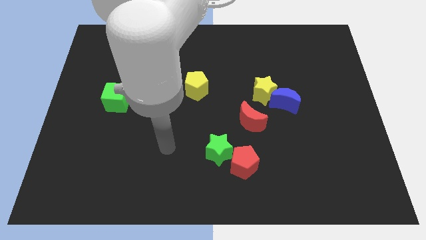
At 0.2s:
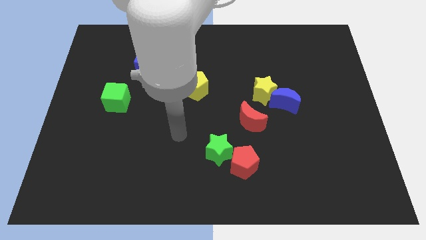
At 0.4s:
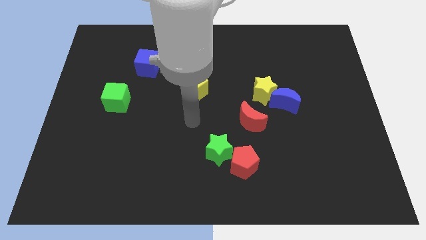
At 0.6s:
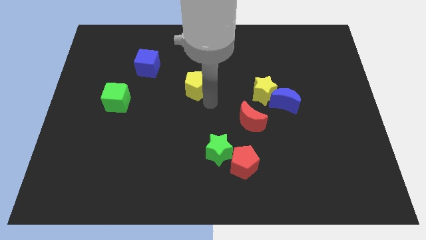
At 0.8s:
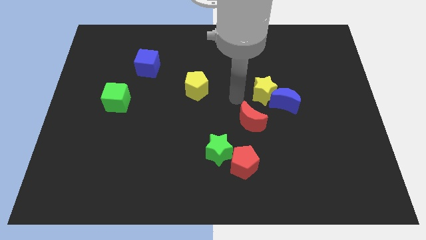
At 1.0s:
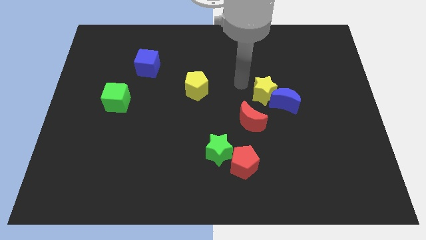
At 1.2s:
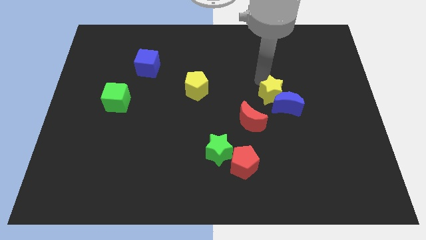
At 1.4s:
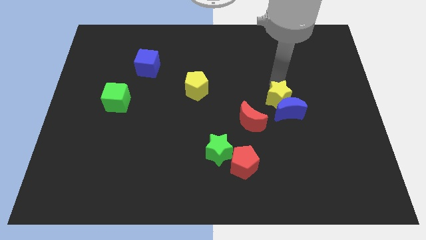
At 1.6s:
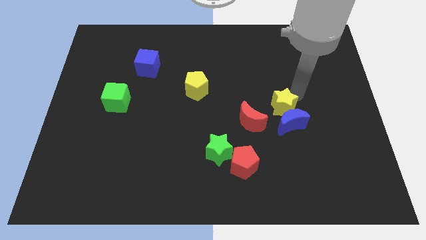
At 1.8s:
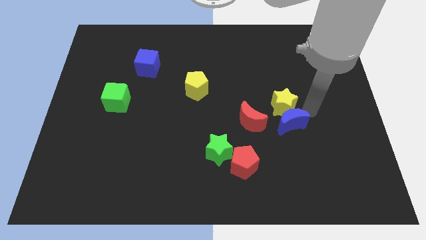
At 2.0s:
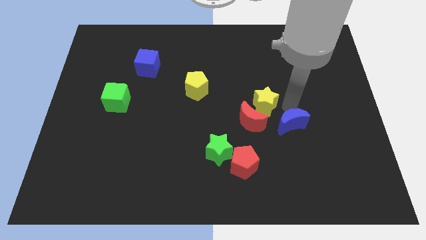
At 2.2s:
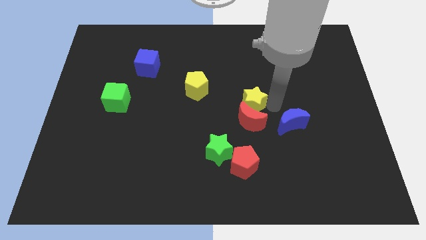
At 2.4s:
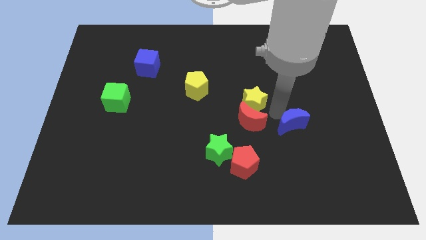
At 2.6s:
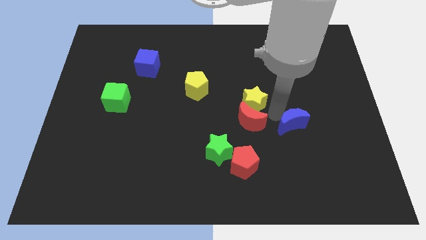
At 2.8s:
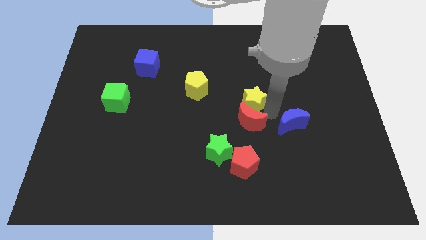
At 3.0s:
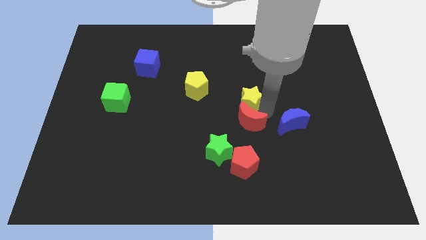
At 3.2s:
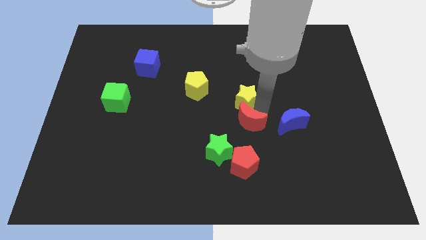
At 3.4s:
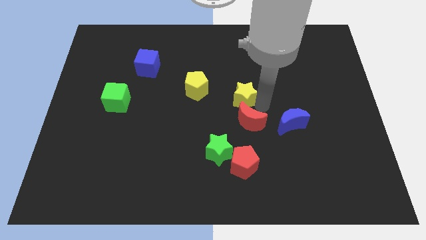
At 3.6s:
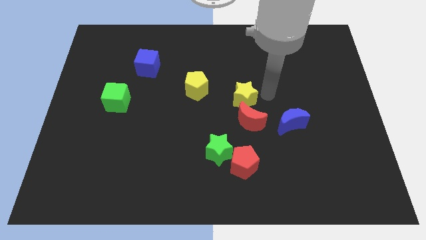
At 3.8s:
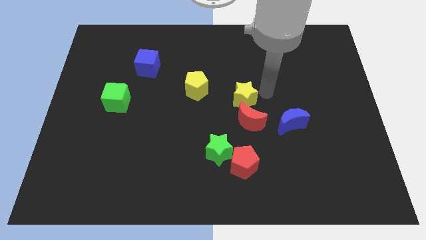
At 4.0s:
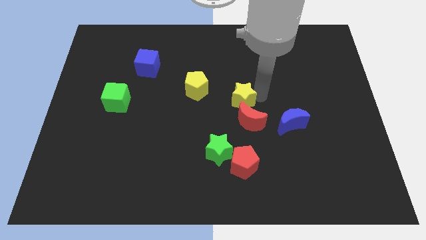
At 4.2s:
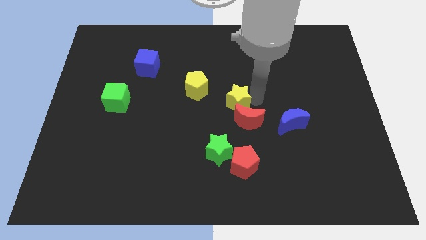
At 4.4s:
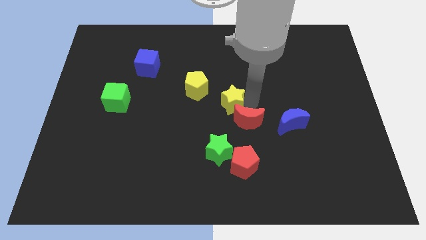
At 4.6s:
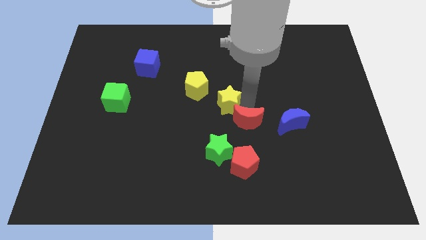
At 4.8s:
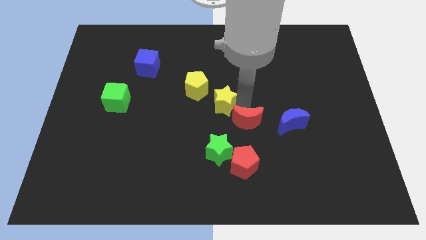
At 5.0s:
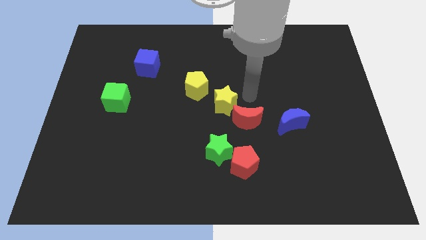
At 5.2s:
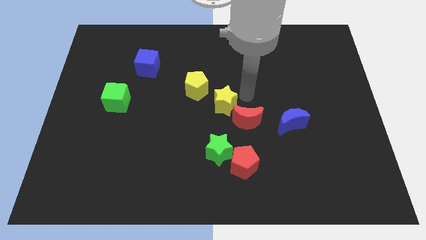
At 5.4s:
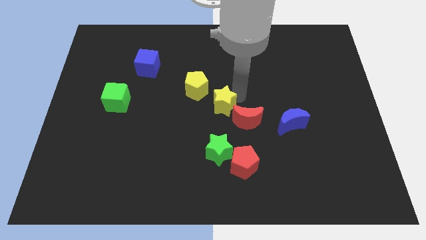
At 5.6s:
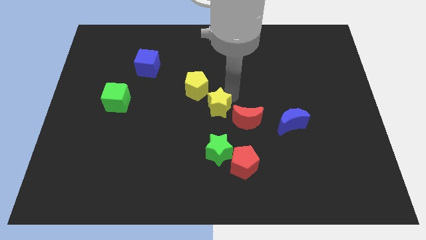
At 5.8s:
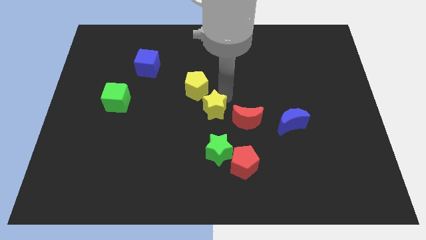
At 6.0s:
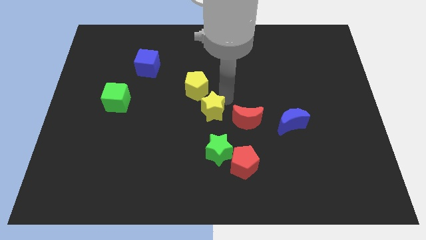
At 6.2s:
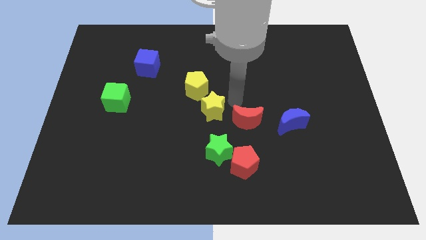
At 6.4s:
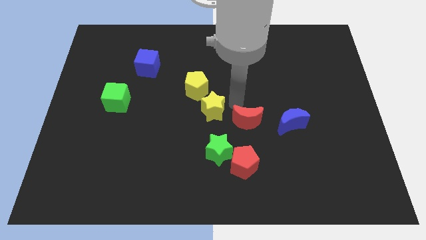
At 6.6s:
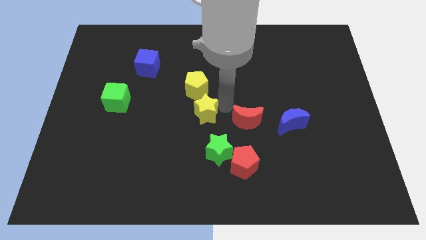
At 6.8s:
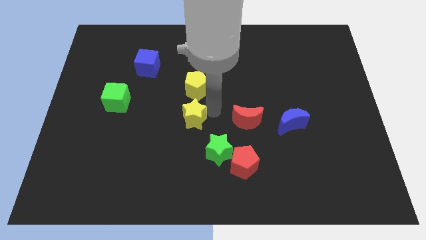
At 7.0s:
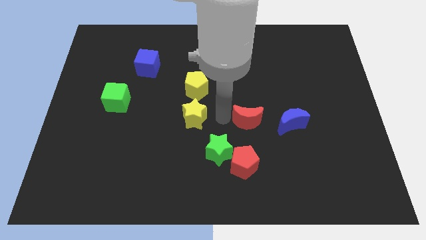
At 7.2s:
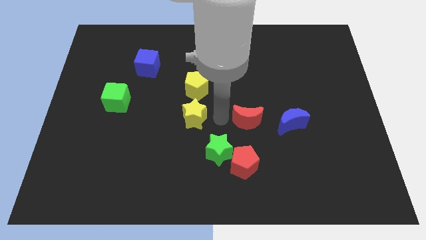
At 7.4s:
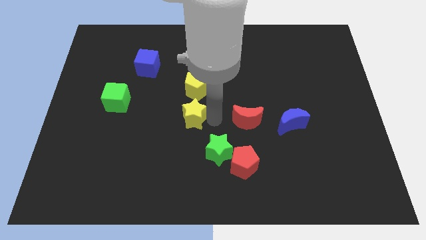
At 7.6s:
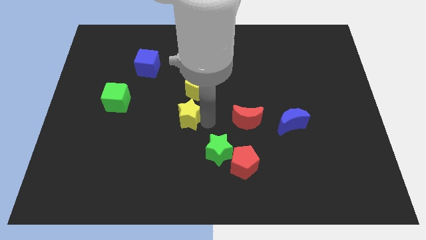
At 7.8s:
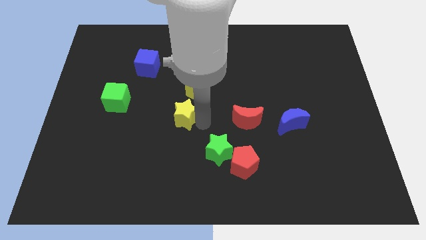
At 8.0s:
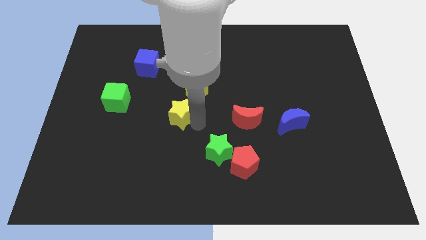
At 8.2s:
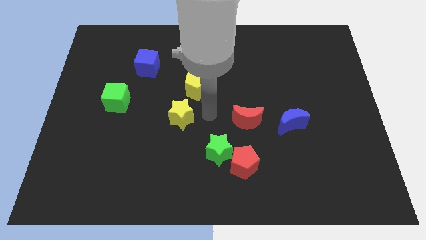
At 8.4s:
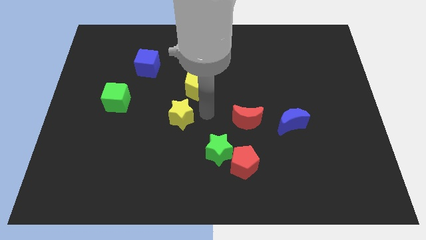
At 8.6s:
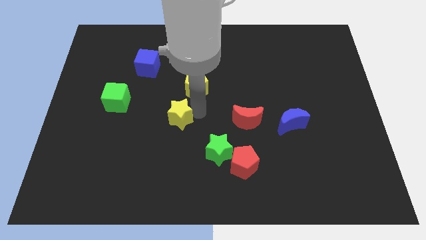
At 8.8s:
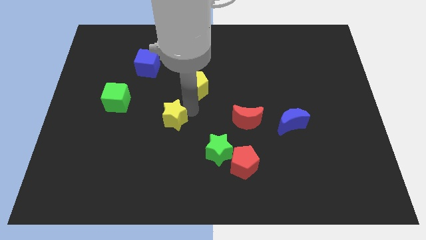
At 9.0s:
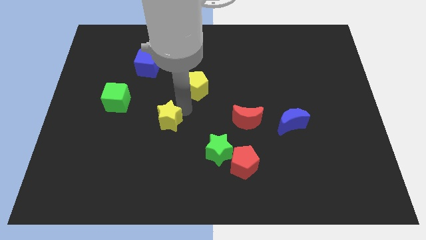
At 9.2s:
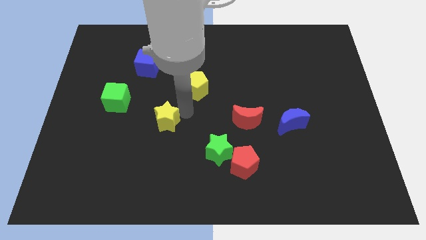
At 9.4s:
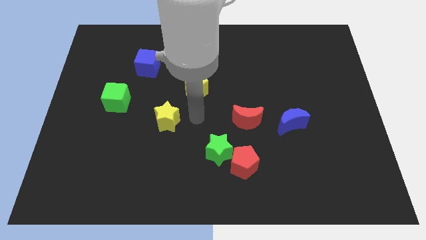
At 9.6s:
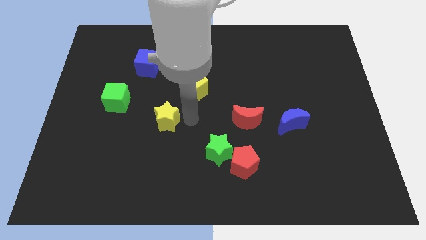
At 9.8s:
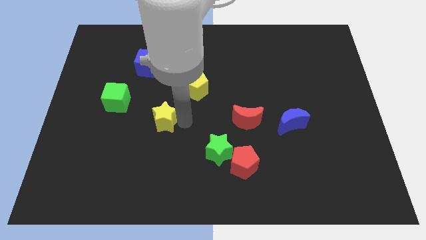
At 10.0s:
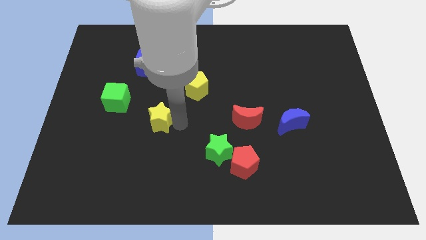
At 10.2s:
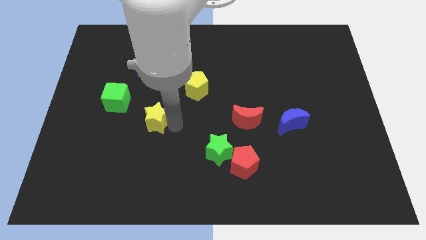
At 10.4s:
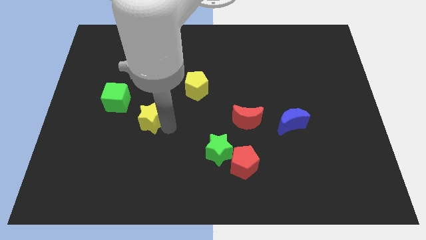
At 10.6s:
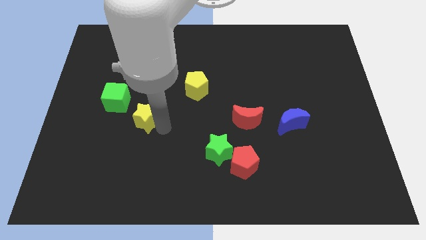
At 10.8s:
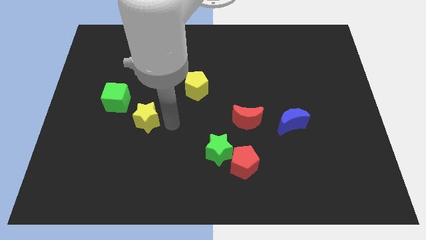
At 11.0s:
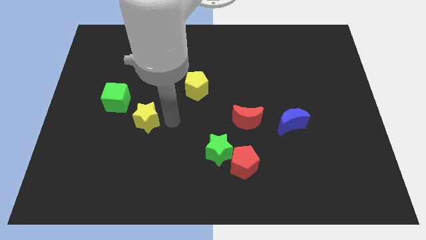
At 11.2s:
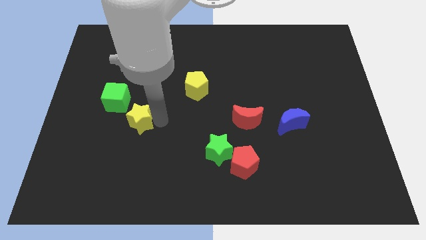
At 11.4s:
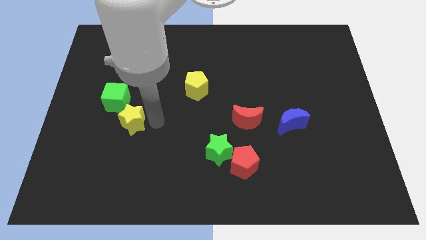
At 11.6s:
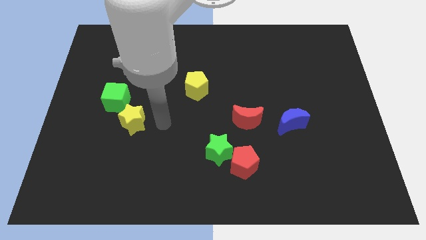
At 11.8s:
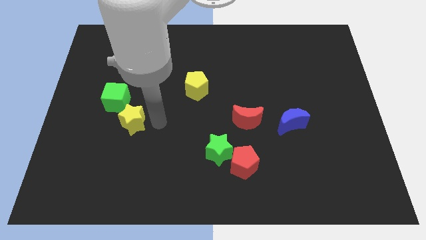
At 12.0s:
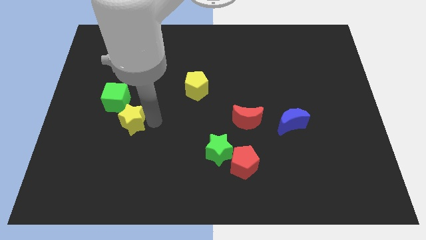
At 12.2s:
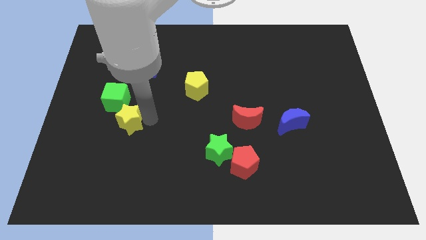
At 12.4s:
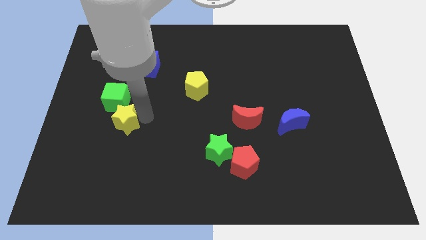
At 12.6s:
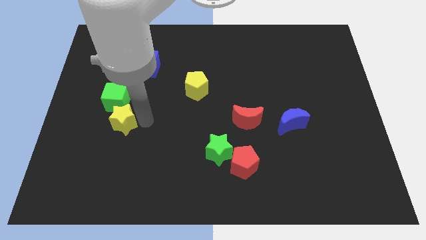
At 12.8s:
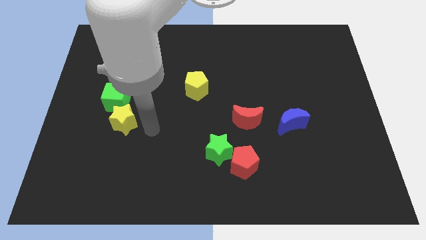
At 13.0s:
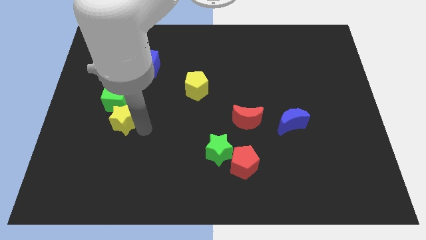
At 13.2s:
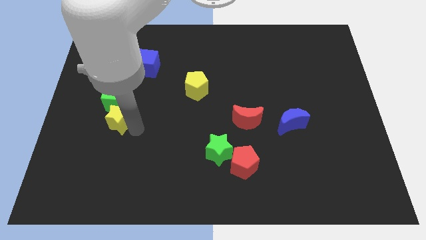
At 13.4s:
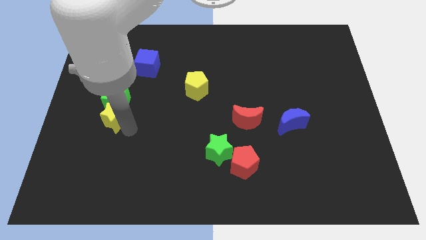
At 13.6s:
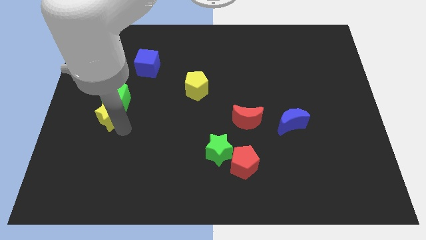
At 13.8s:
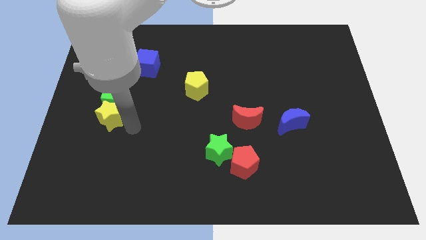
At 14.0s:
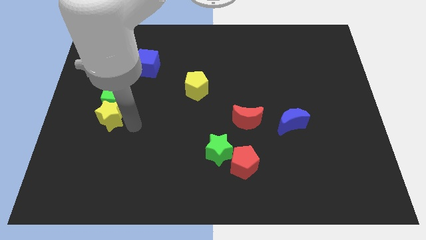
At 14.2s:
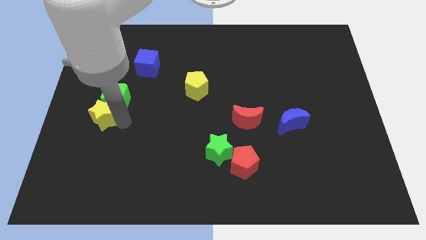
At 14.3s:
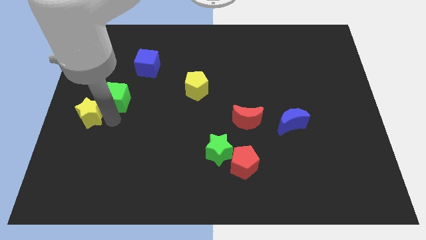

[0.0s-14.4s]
move the yellow star to the center left
